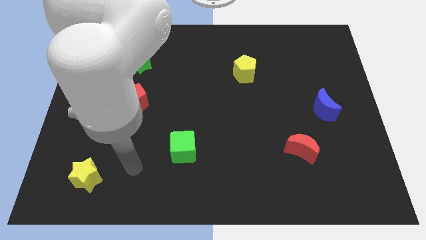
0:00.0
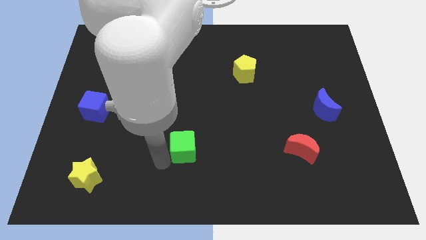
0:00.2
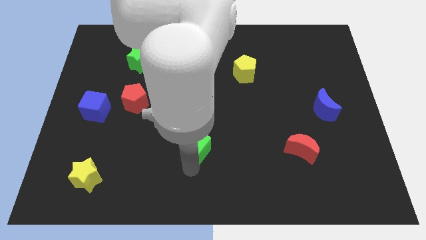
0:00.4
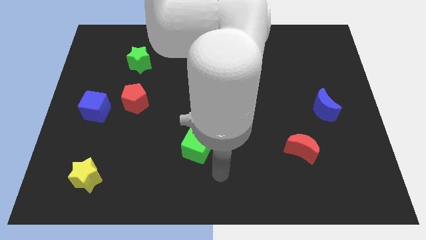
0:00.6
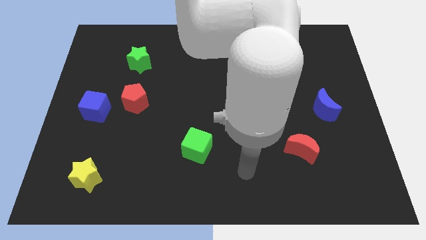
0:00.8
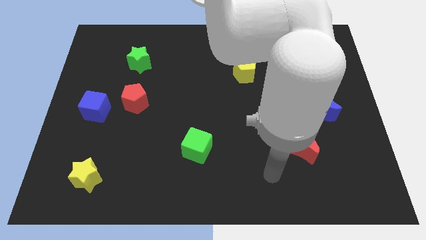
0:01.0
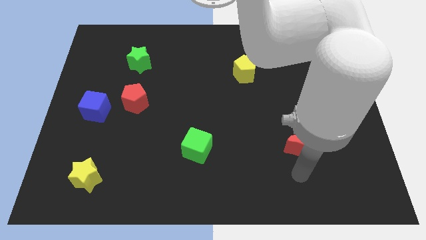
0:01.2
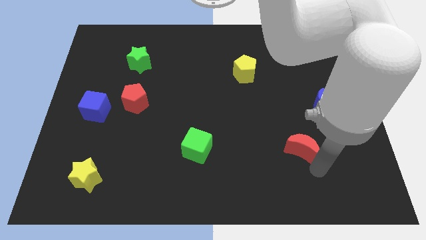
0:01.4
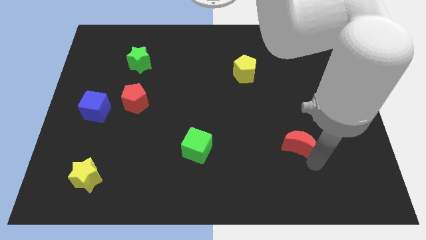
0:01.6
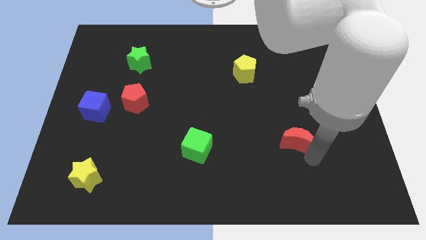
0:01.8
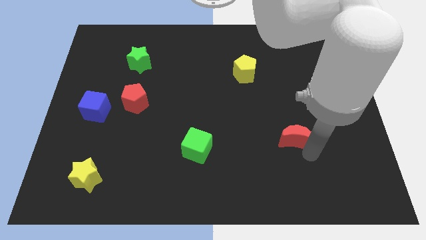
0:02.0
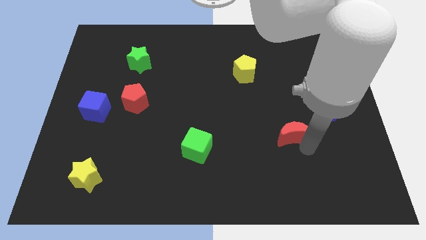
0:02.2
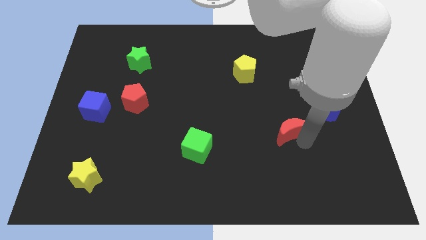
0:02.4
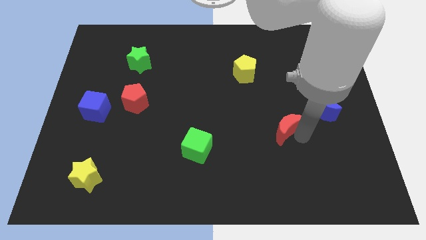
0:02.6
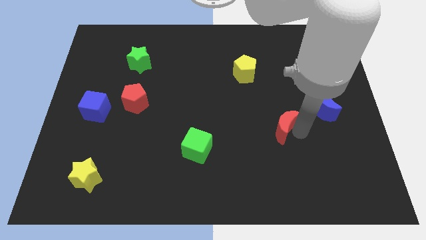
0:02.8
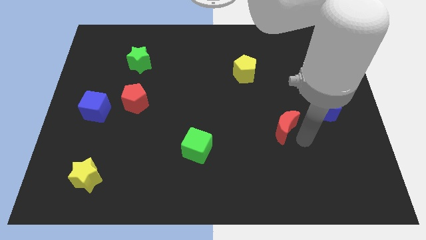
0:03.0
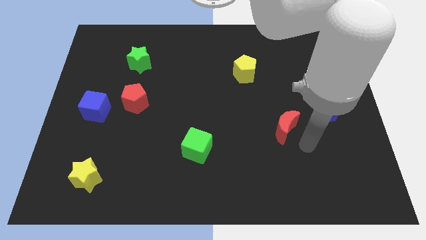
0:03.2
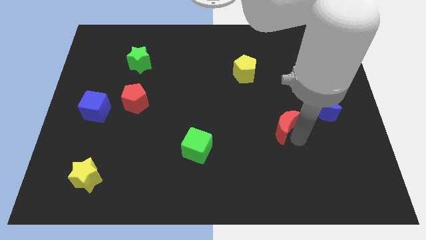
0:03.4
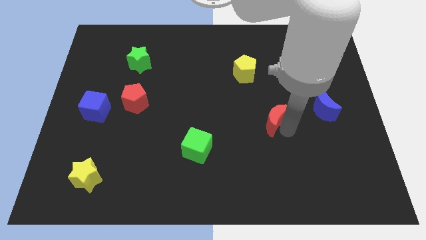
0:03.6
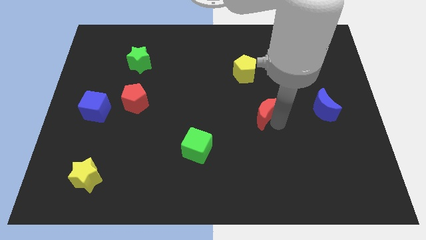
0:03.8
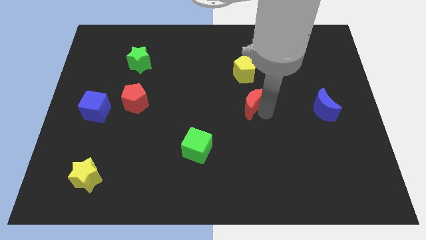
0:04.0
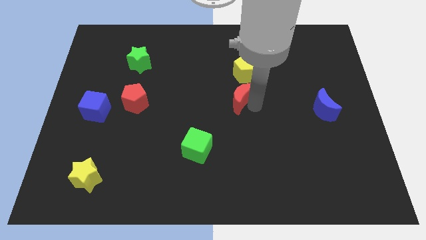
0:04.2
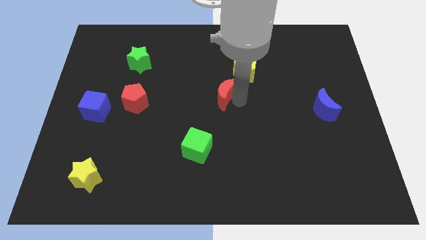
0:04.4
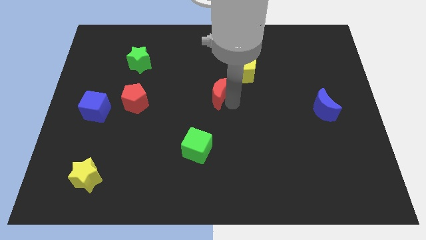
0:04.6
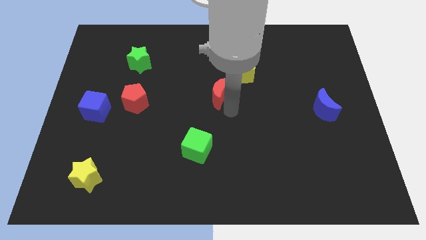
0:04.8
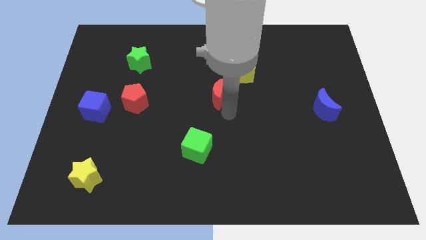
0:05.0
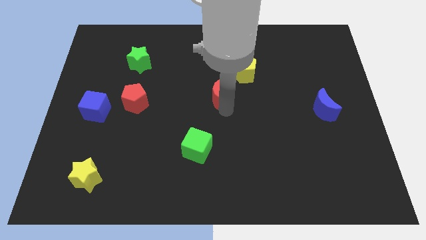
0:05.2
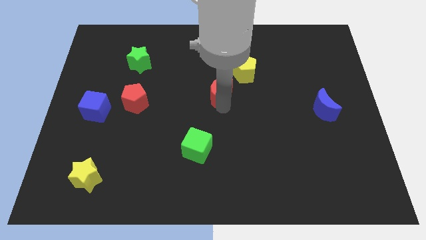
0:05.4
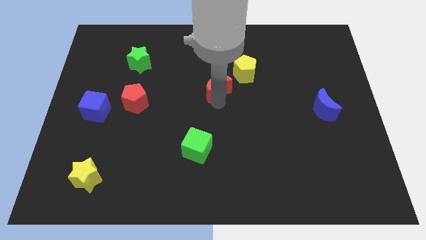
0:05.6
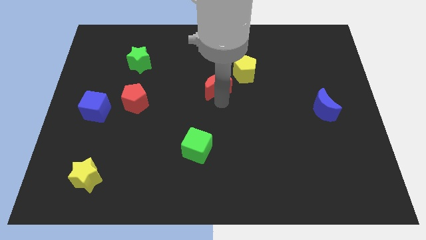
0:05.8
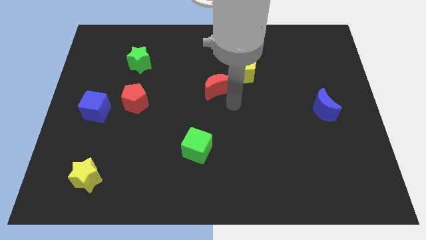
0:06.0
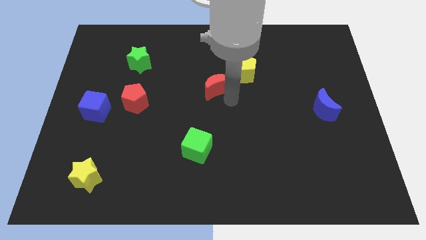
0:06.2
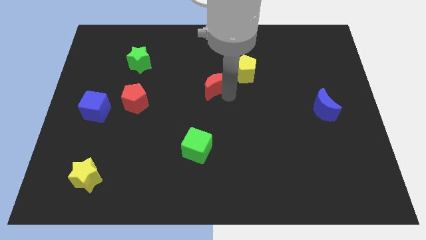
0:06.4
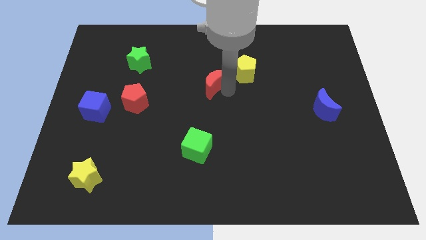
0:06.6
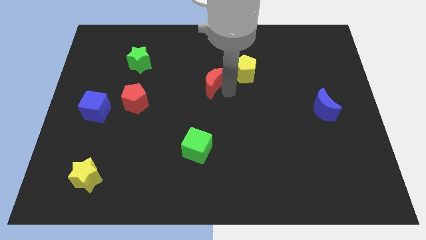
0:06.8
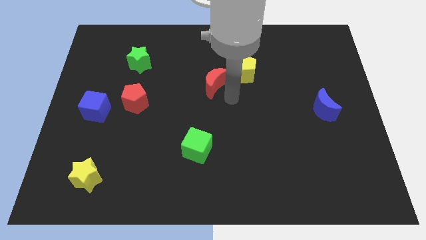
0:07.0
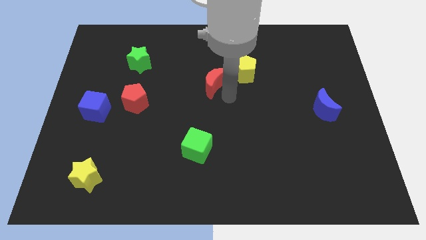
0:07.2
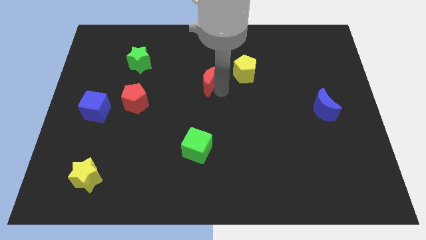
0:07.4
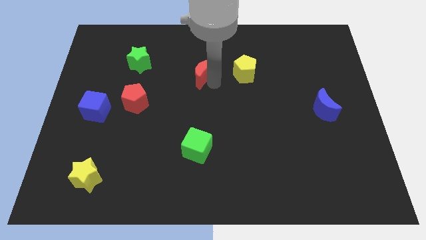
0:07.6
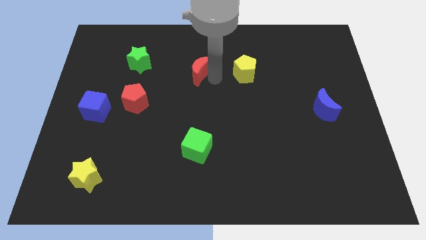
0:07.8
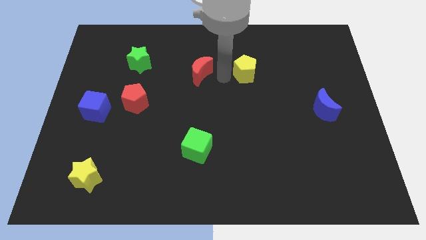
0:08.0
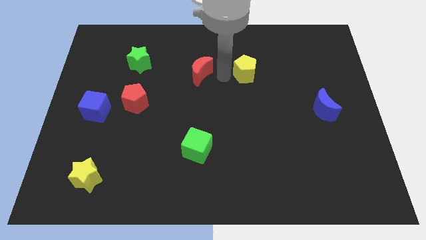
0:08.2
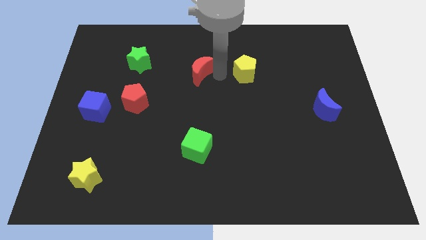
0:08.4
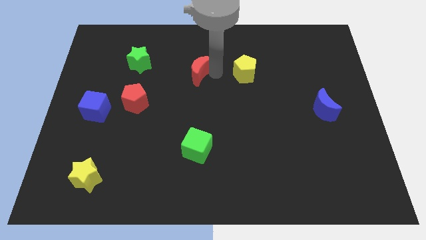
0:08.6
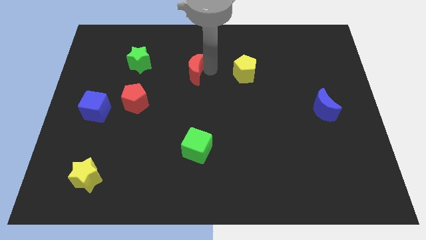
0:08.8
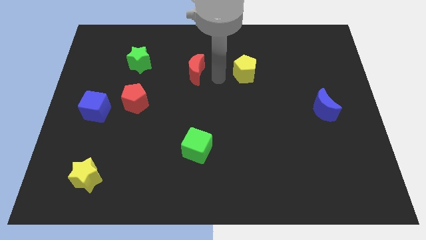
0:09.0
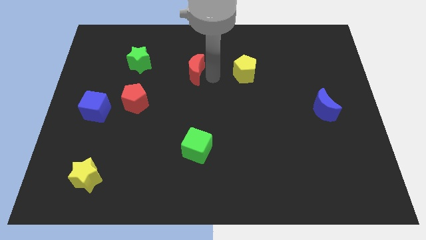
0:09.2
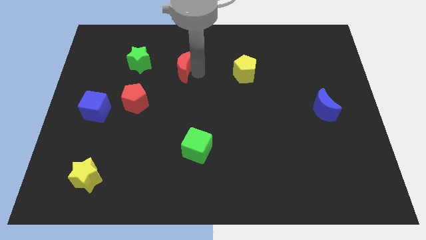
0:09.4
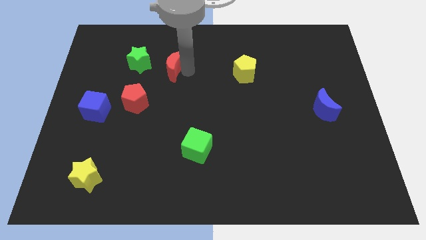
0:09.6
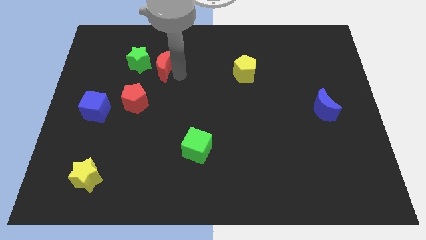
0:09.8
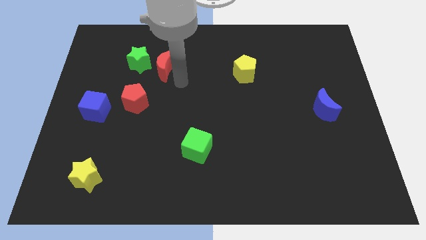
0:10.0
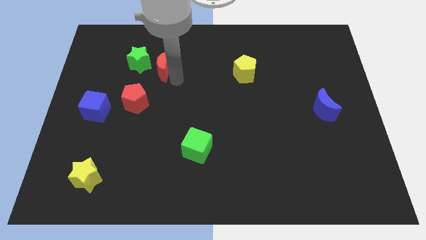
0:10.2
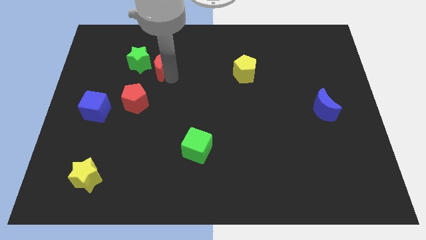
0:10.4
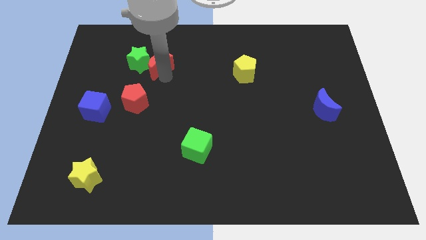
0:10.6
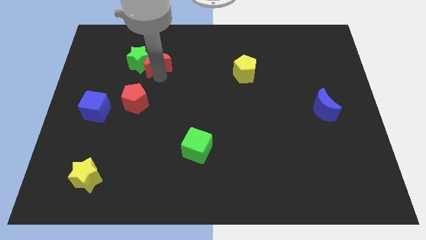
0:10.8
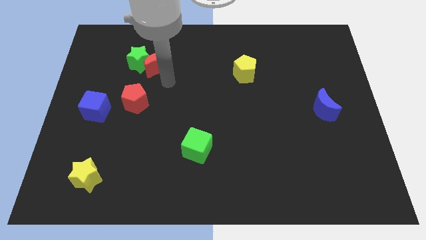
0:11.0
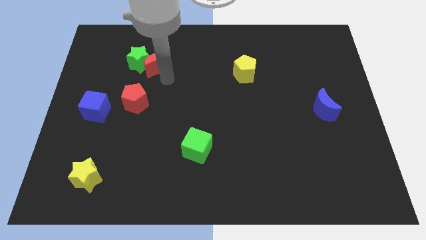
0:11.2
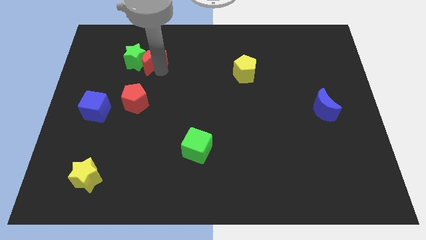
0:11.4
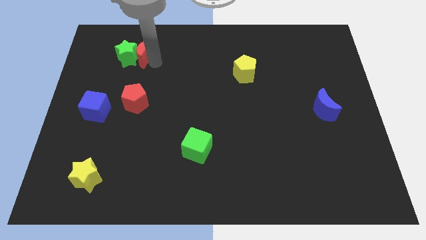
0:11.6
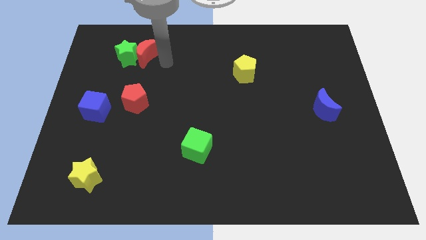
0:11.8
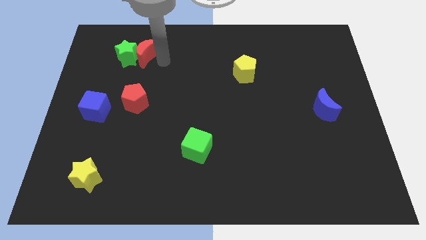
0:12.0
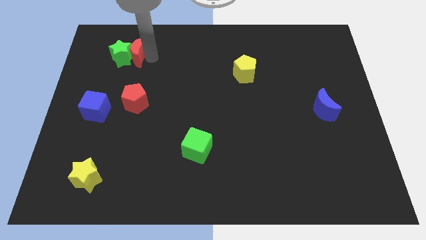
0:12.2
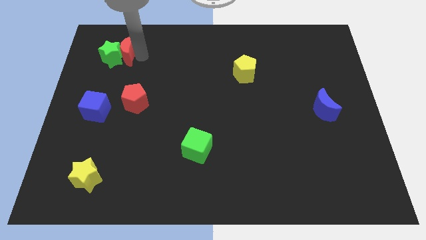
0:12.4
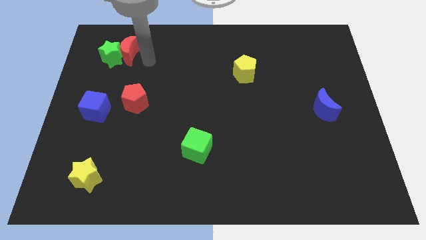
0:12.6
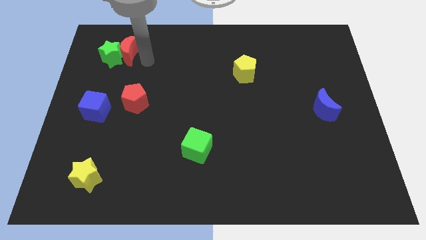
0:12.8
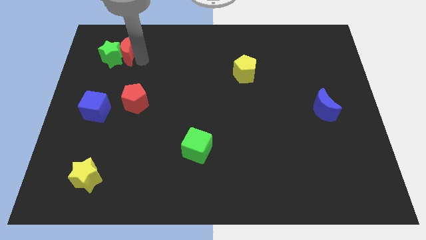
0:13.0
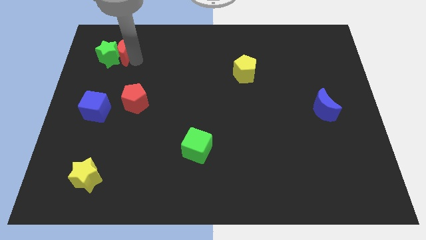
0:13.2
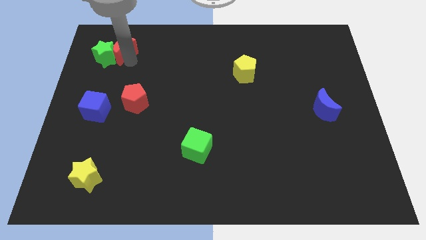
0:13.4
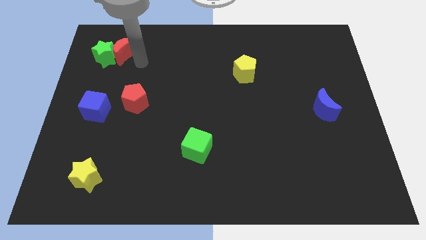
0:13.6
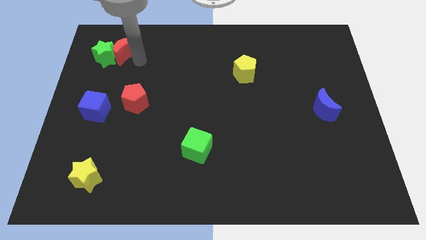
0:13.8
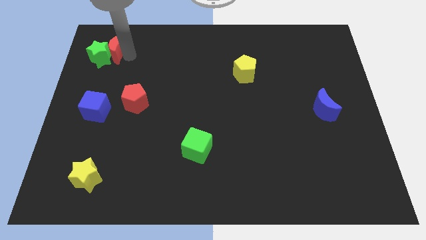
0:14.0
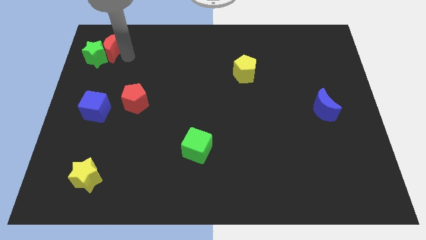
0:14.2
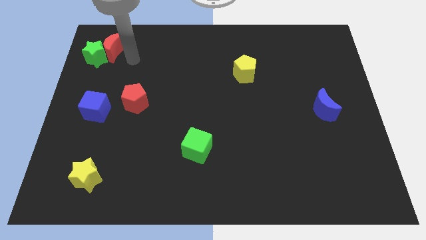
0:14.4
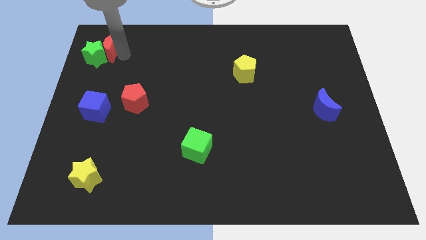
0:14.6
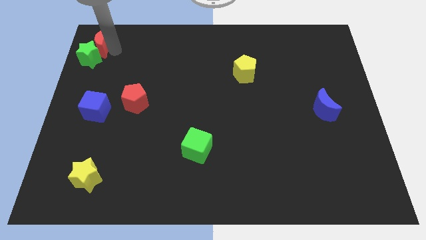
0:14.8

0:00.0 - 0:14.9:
slide the red moon to the upper left corner
